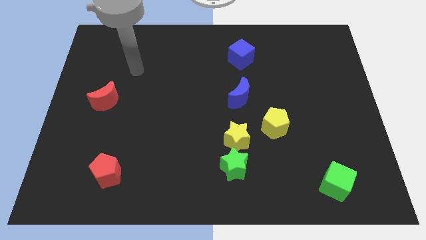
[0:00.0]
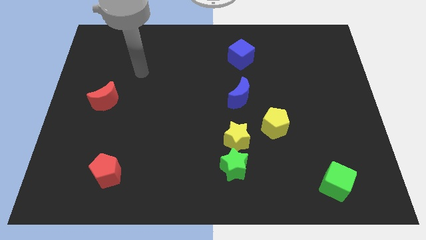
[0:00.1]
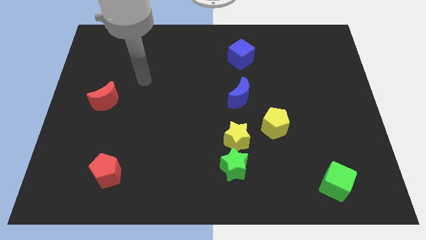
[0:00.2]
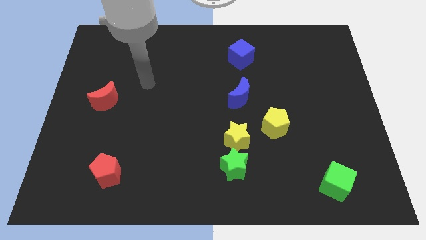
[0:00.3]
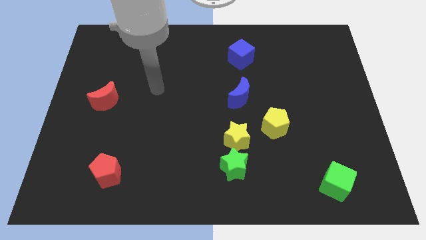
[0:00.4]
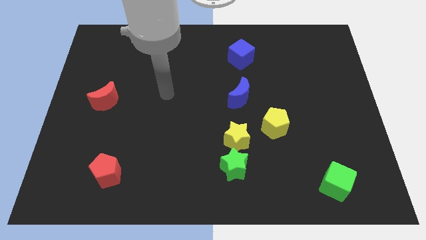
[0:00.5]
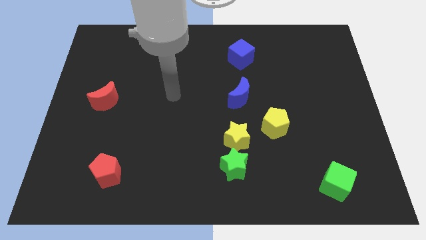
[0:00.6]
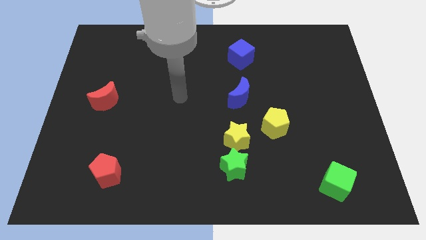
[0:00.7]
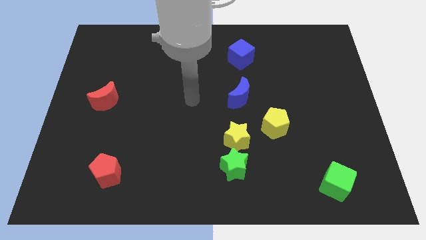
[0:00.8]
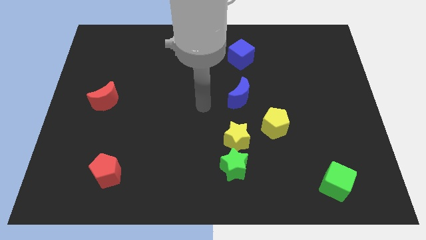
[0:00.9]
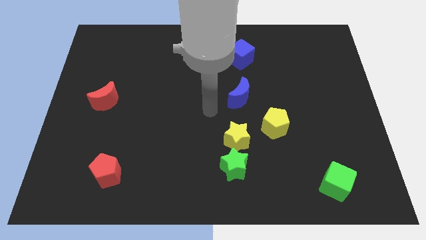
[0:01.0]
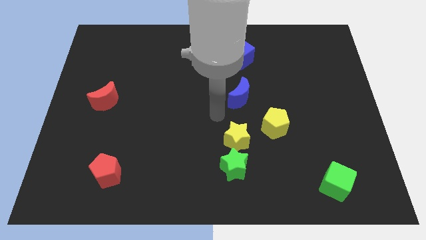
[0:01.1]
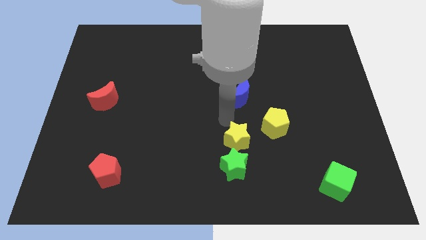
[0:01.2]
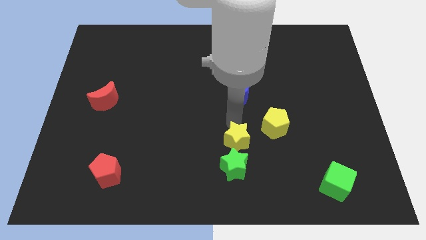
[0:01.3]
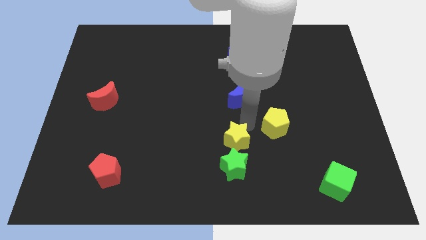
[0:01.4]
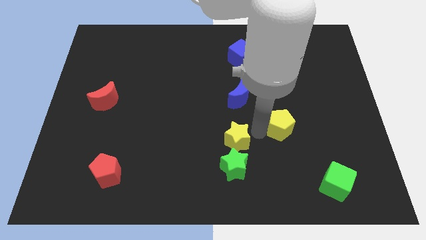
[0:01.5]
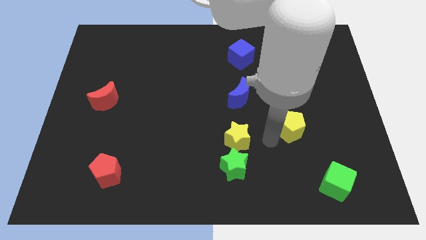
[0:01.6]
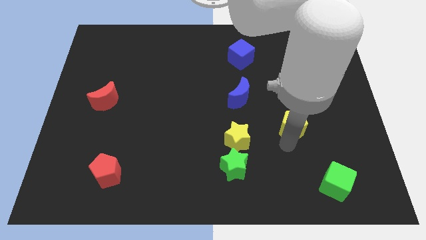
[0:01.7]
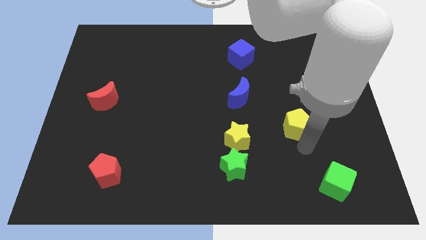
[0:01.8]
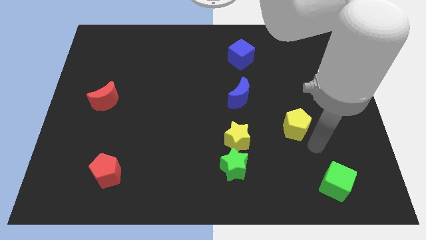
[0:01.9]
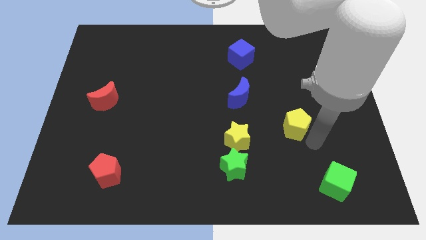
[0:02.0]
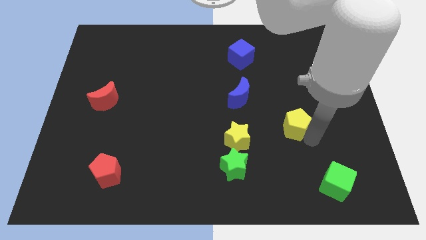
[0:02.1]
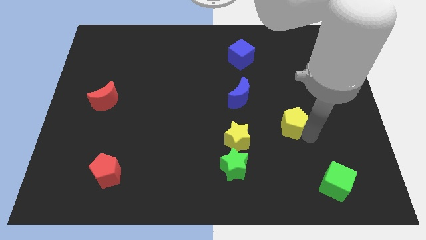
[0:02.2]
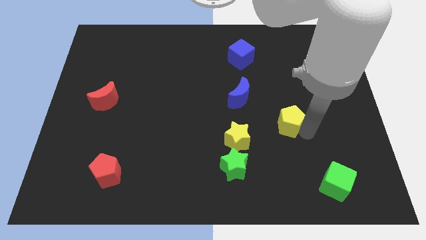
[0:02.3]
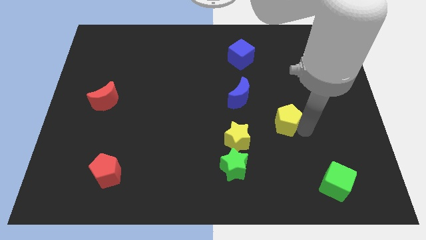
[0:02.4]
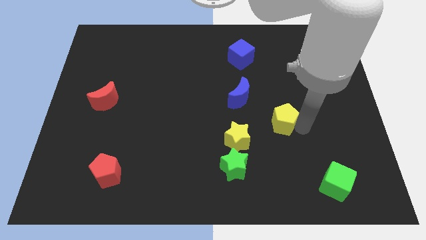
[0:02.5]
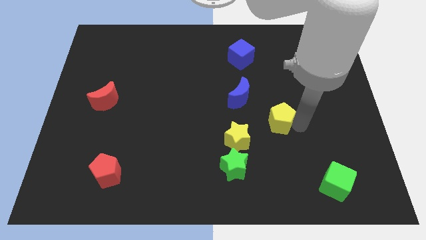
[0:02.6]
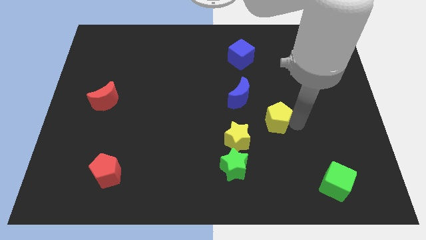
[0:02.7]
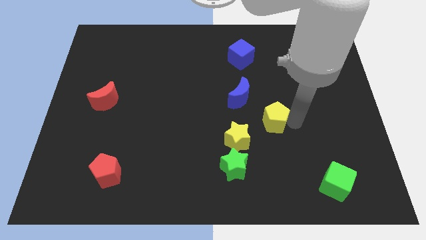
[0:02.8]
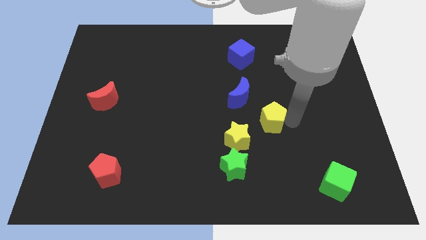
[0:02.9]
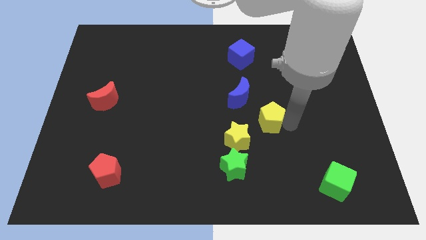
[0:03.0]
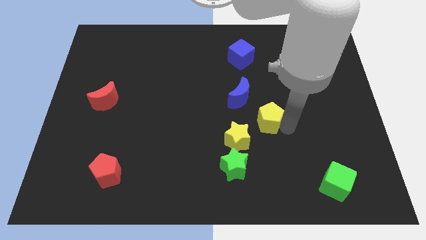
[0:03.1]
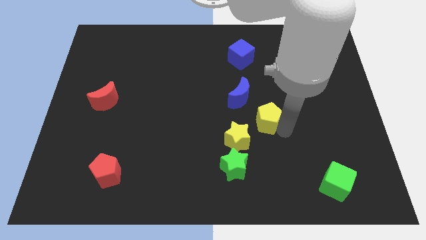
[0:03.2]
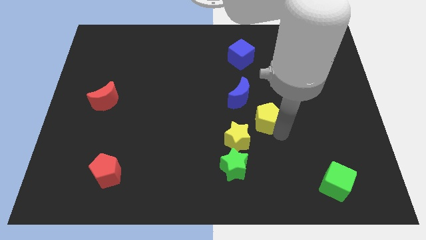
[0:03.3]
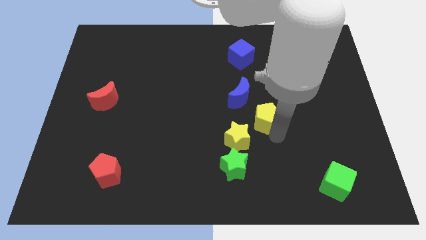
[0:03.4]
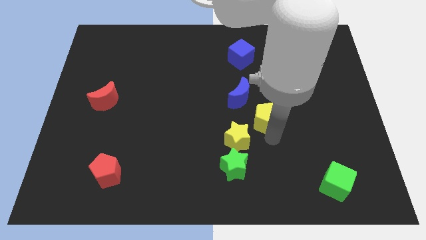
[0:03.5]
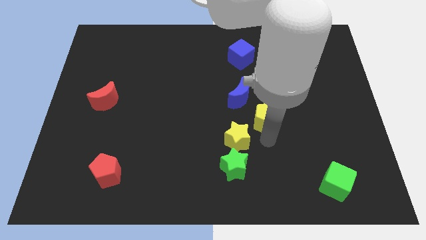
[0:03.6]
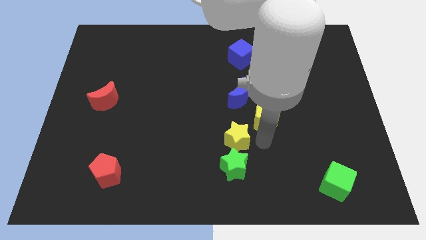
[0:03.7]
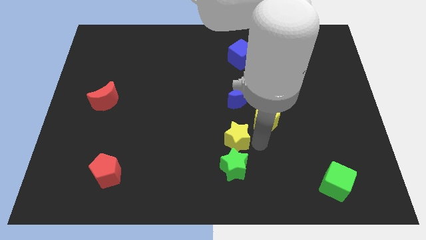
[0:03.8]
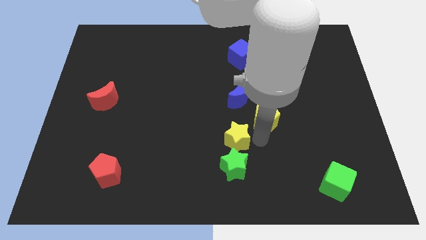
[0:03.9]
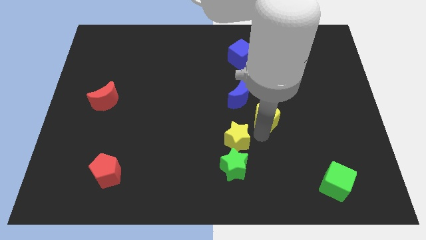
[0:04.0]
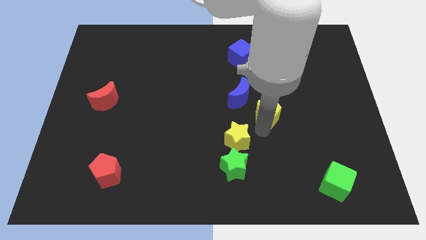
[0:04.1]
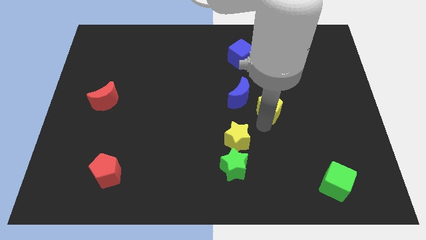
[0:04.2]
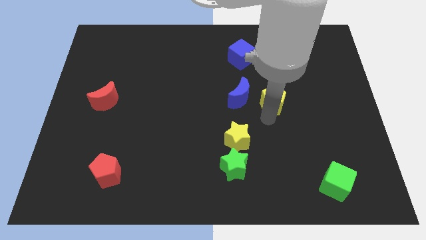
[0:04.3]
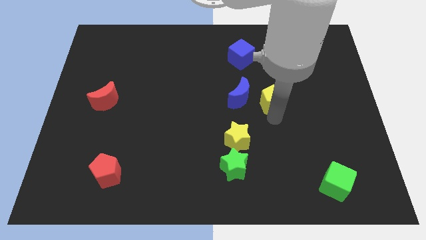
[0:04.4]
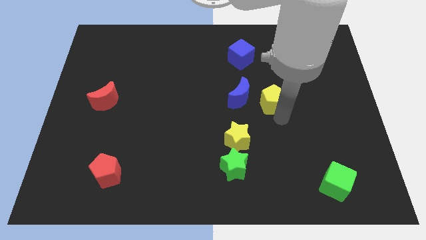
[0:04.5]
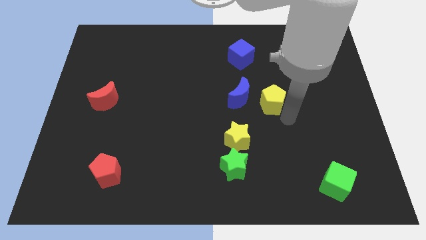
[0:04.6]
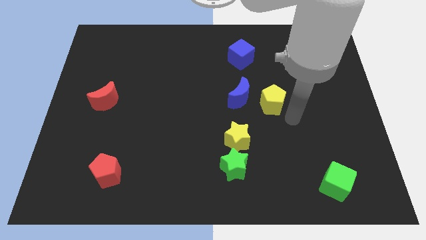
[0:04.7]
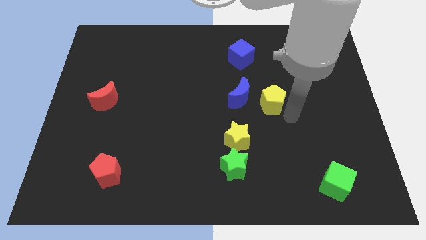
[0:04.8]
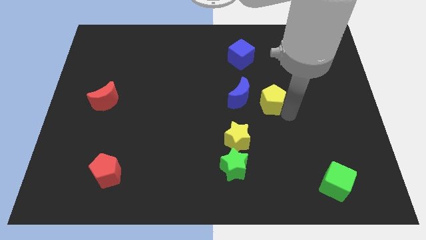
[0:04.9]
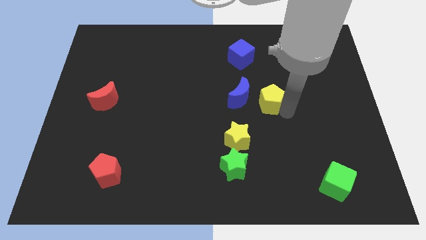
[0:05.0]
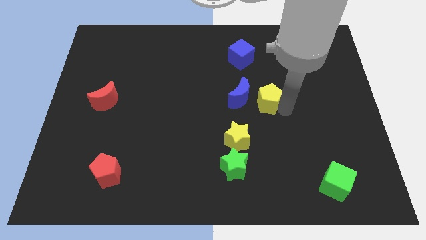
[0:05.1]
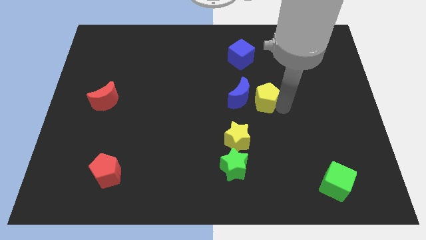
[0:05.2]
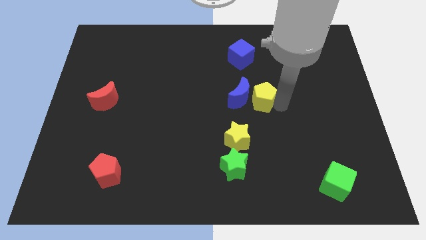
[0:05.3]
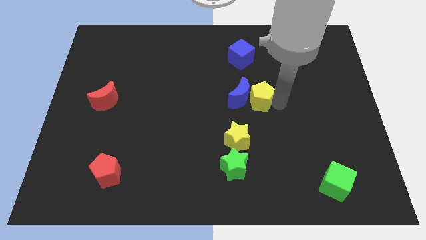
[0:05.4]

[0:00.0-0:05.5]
slide the yellow pentagon a little diagonally up and to the left

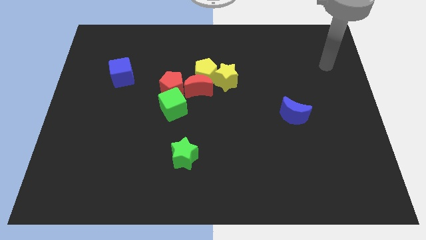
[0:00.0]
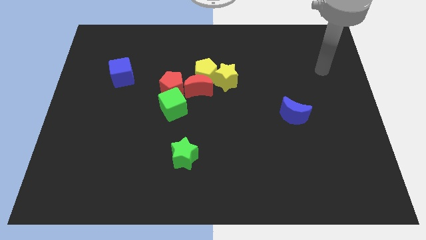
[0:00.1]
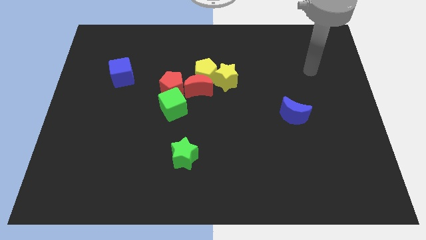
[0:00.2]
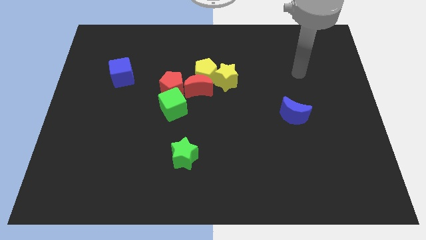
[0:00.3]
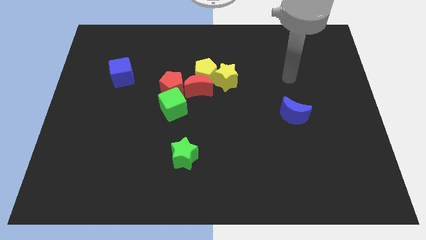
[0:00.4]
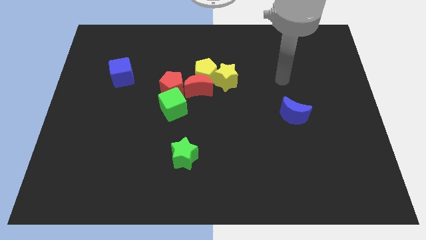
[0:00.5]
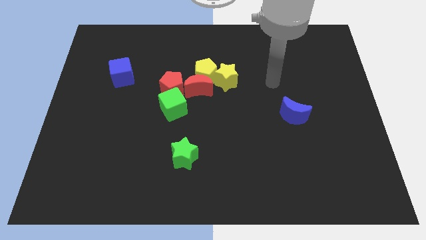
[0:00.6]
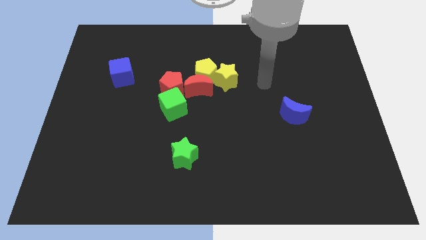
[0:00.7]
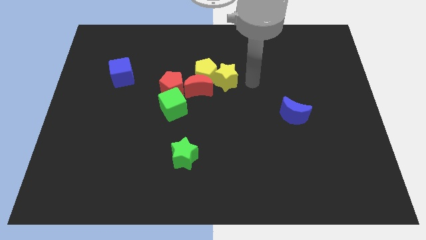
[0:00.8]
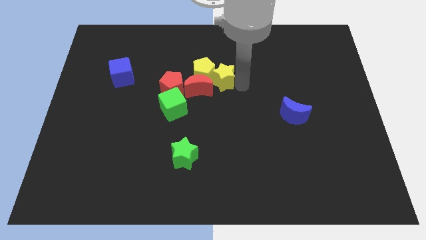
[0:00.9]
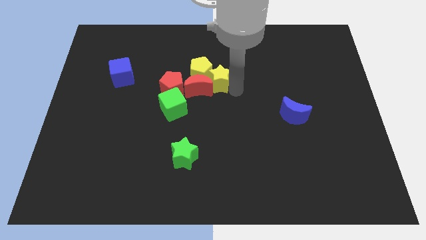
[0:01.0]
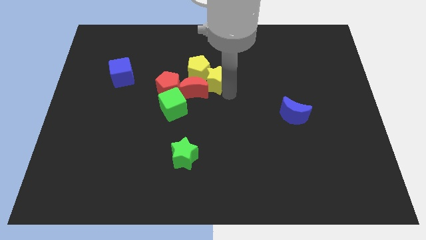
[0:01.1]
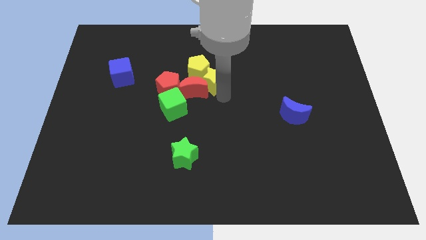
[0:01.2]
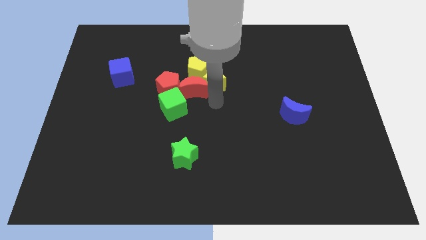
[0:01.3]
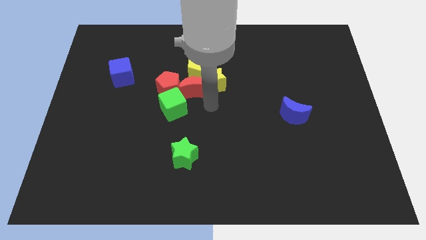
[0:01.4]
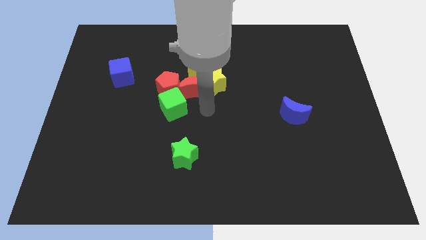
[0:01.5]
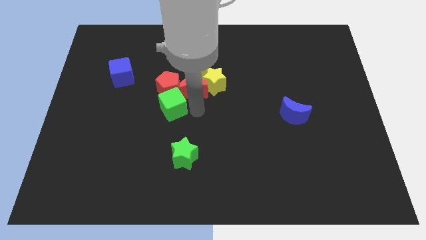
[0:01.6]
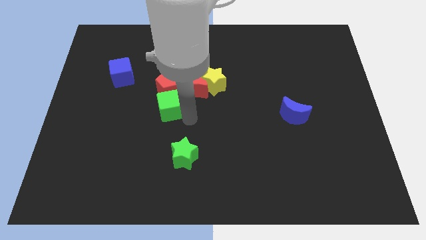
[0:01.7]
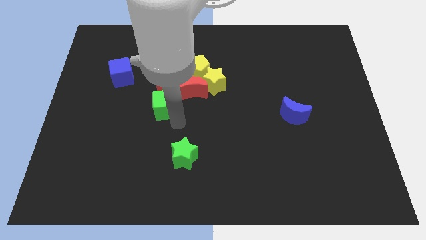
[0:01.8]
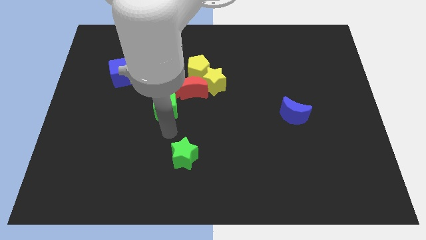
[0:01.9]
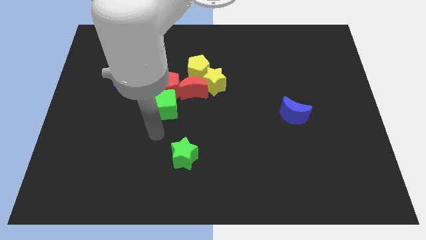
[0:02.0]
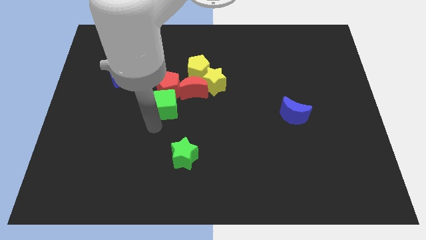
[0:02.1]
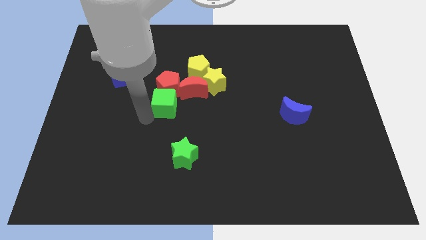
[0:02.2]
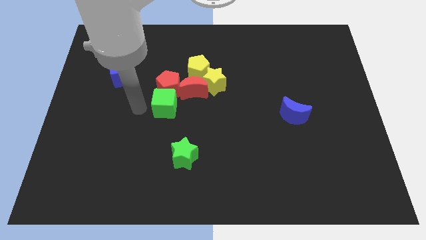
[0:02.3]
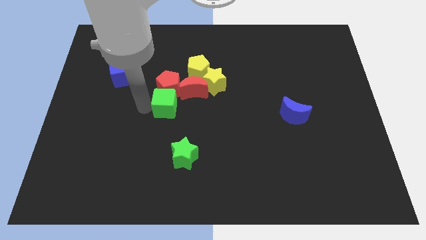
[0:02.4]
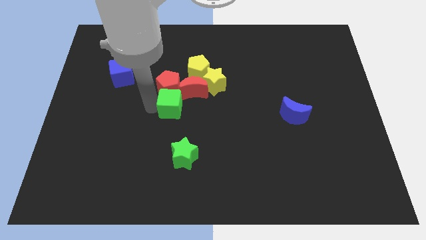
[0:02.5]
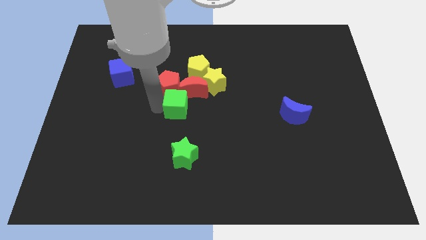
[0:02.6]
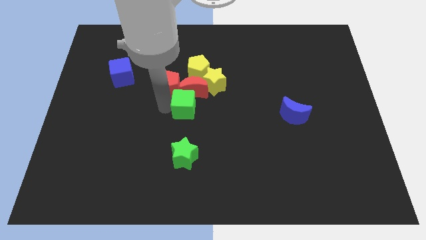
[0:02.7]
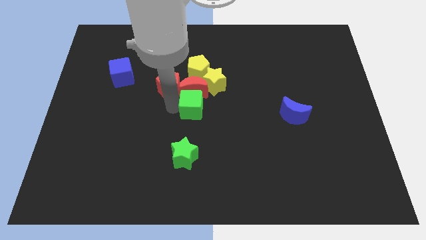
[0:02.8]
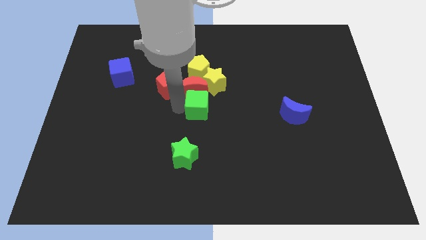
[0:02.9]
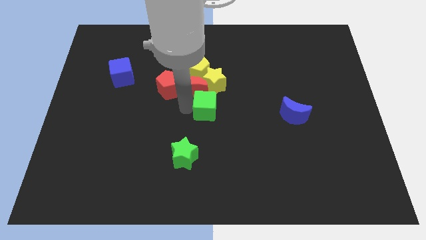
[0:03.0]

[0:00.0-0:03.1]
slightly slide the green cube right
